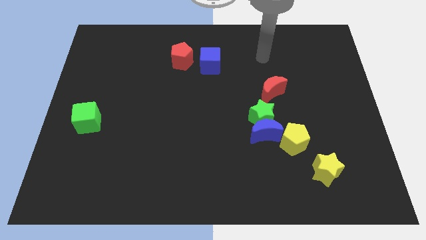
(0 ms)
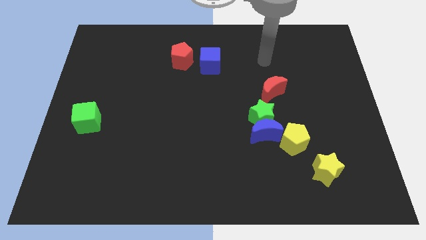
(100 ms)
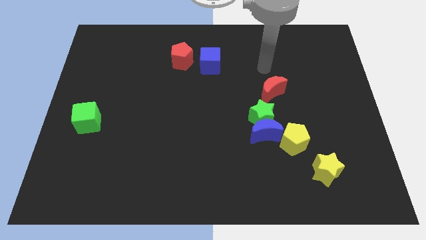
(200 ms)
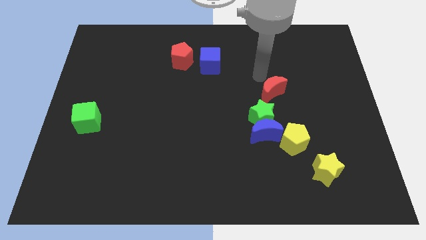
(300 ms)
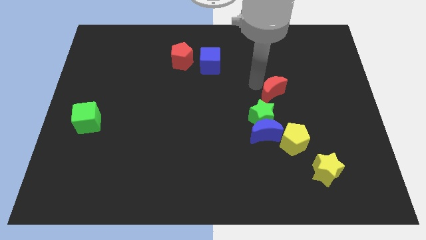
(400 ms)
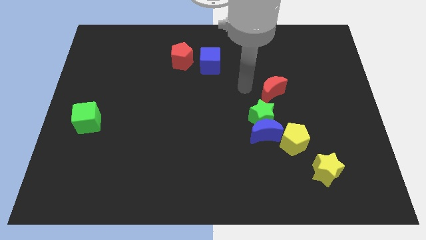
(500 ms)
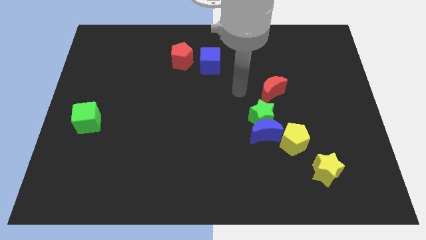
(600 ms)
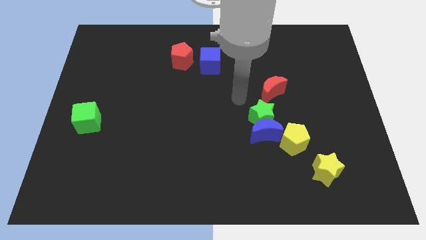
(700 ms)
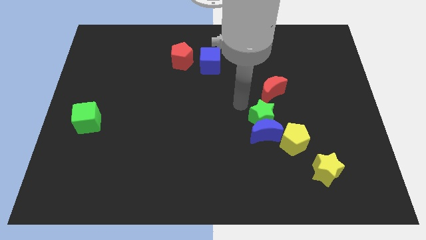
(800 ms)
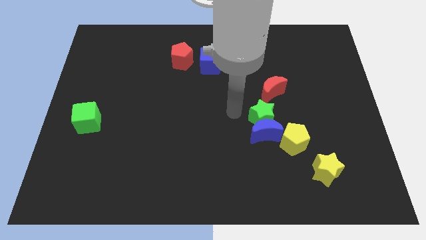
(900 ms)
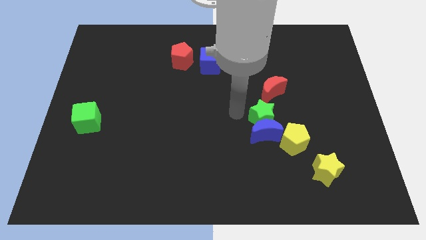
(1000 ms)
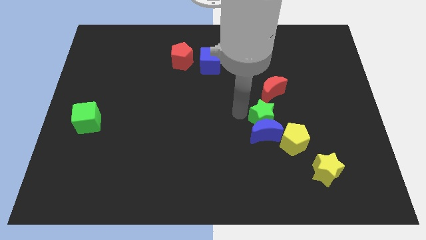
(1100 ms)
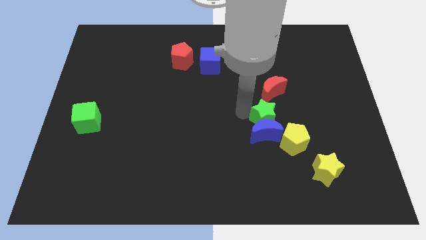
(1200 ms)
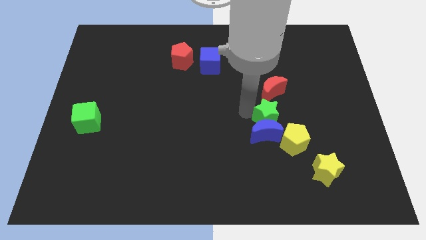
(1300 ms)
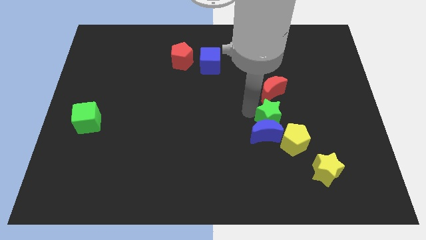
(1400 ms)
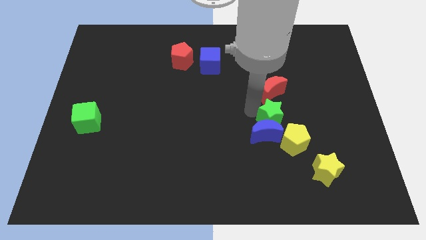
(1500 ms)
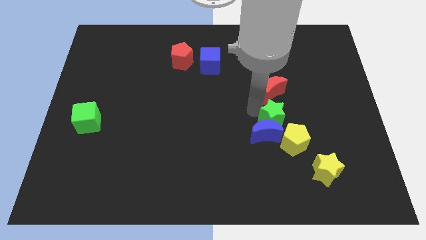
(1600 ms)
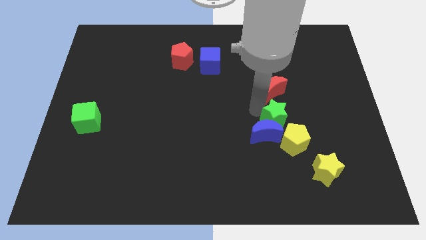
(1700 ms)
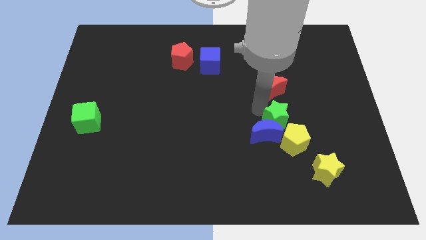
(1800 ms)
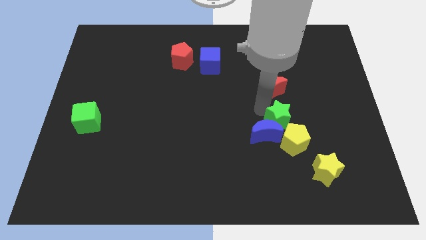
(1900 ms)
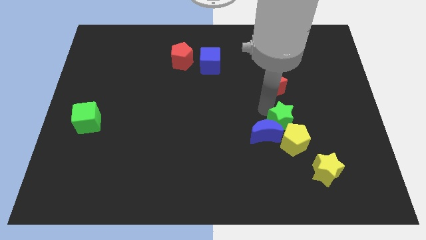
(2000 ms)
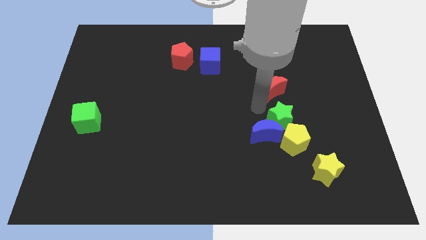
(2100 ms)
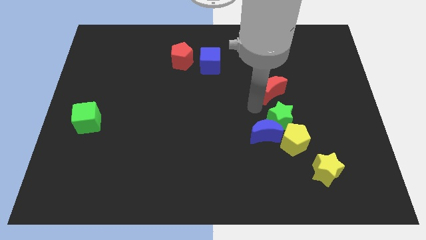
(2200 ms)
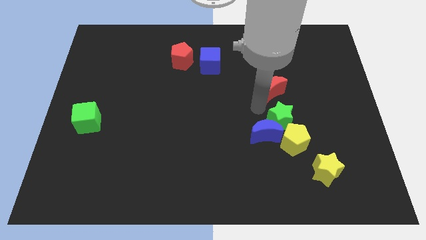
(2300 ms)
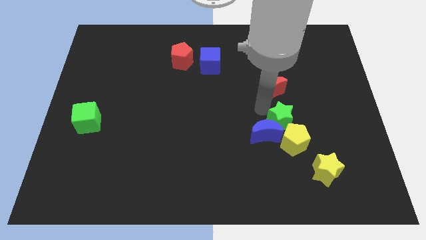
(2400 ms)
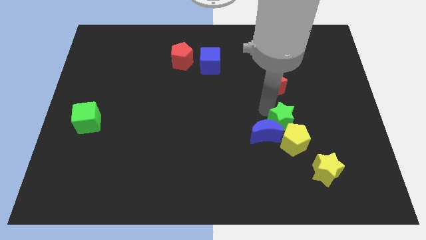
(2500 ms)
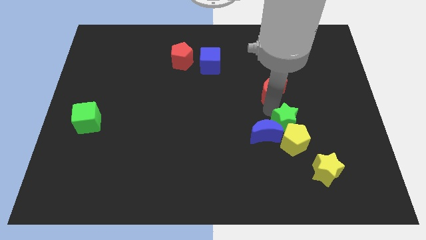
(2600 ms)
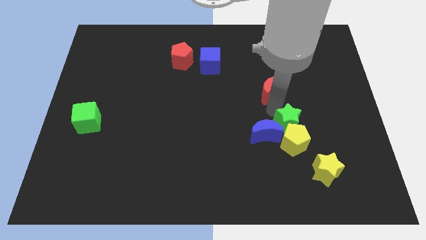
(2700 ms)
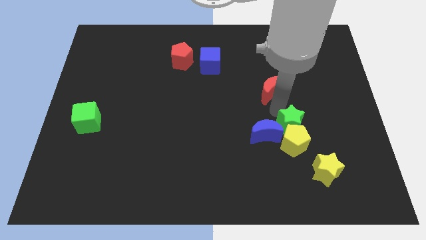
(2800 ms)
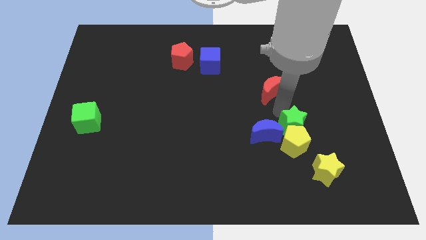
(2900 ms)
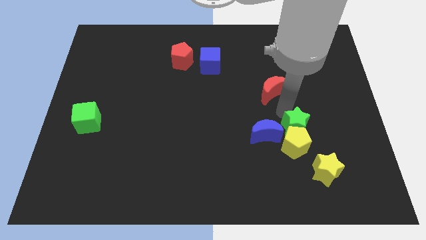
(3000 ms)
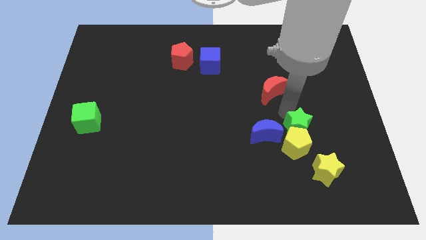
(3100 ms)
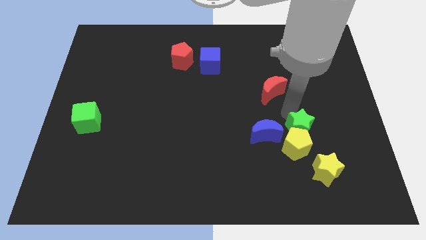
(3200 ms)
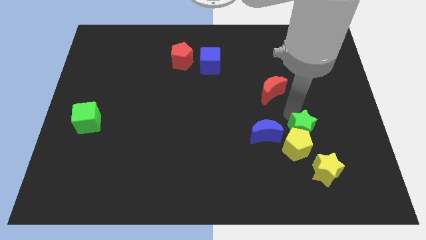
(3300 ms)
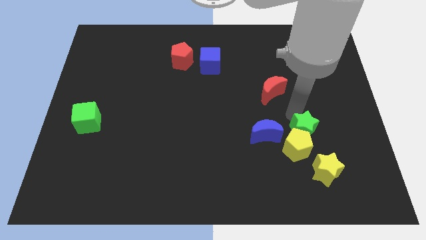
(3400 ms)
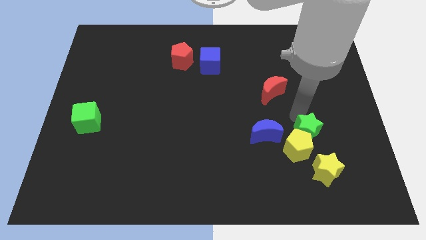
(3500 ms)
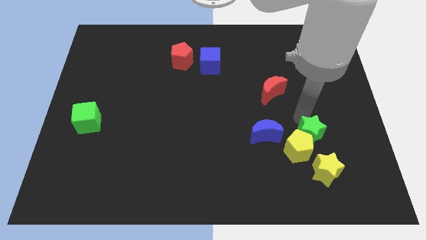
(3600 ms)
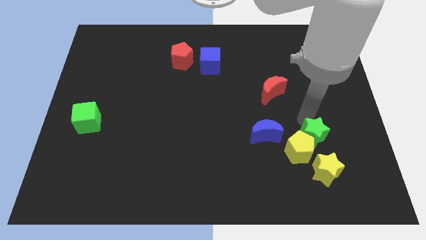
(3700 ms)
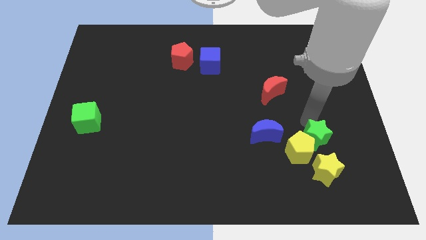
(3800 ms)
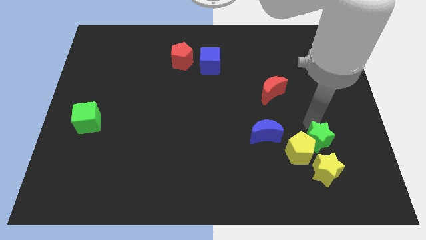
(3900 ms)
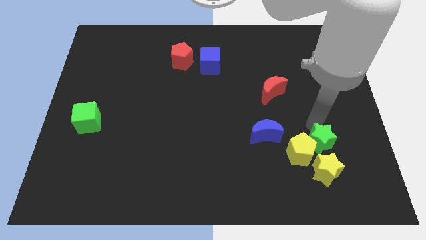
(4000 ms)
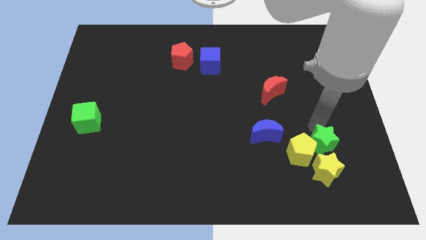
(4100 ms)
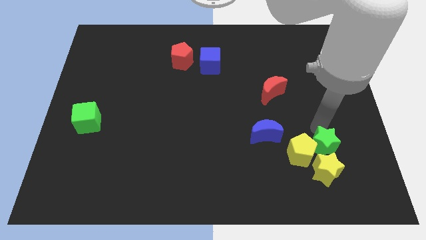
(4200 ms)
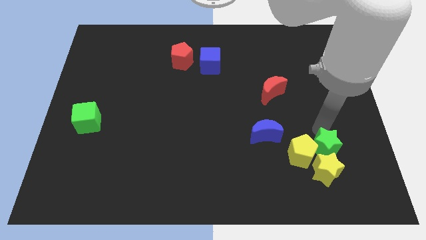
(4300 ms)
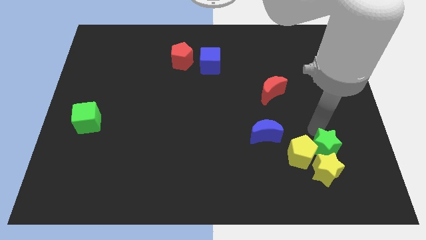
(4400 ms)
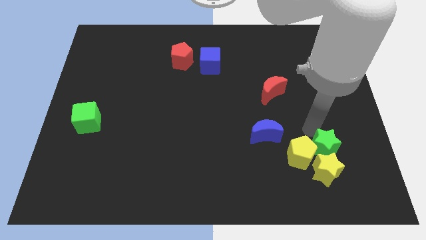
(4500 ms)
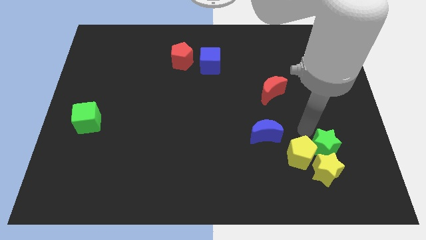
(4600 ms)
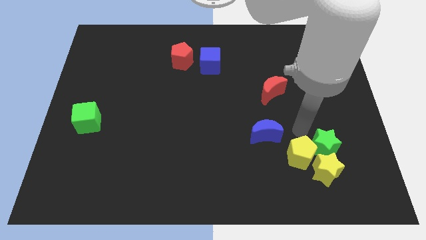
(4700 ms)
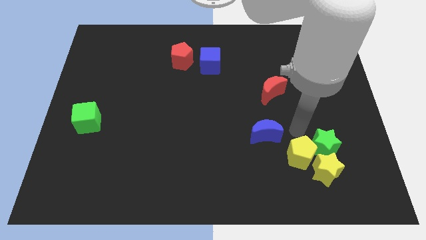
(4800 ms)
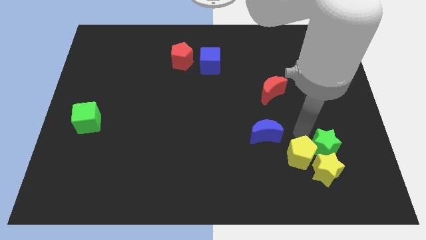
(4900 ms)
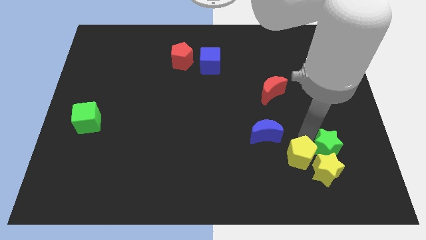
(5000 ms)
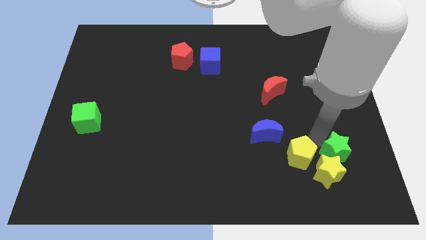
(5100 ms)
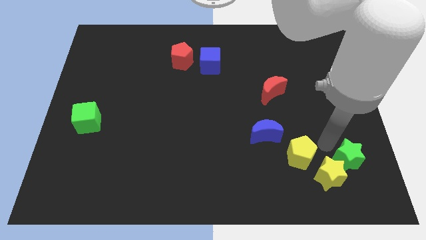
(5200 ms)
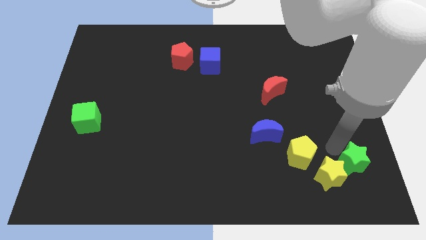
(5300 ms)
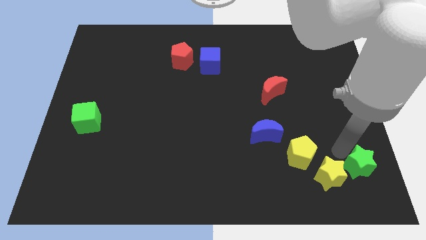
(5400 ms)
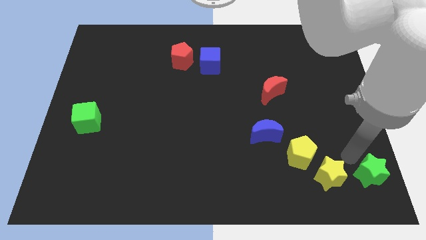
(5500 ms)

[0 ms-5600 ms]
put the green star to the bottom right of the board

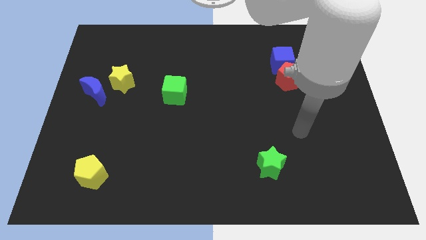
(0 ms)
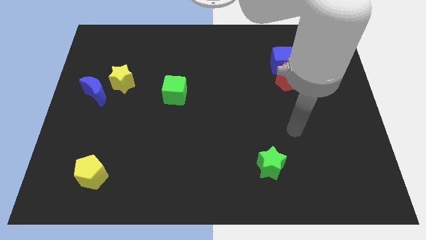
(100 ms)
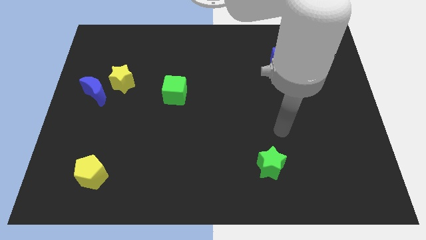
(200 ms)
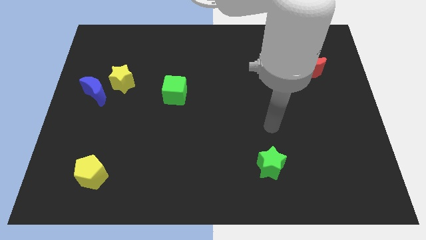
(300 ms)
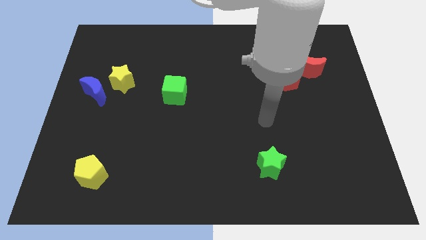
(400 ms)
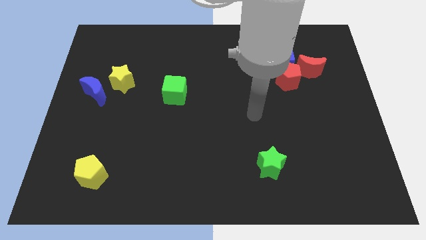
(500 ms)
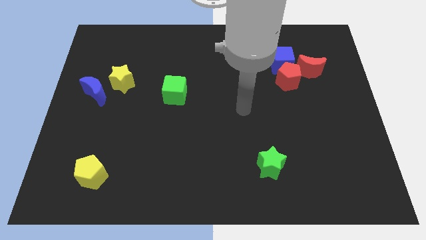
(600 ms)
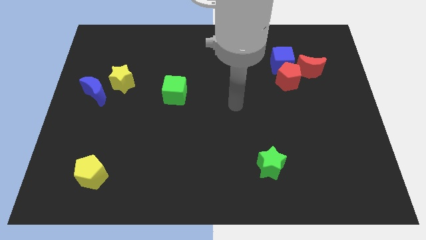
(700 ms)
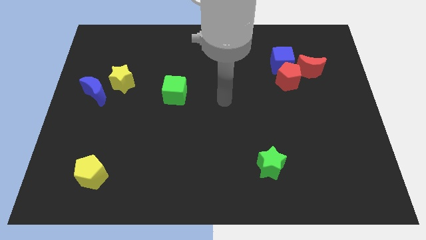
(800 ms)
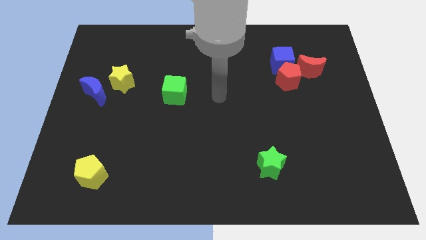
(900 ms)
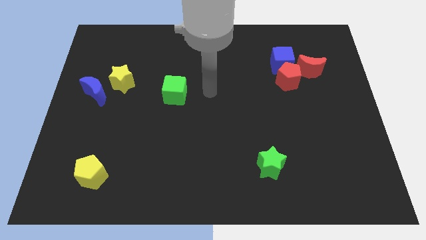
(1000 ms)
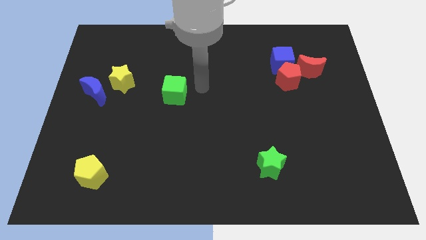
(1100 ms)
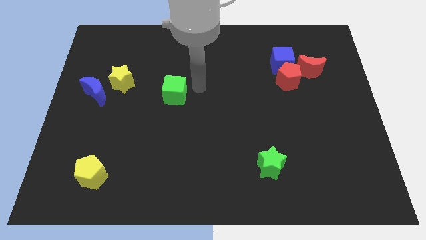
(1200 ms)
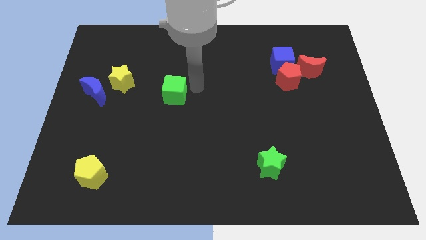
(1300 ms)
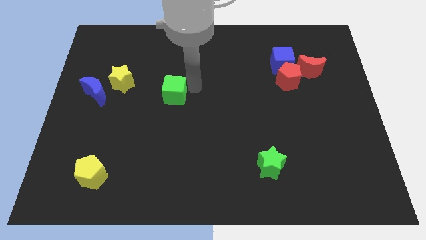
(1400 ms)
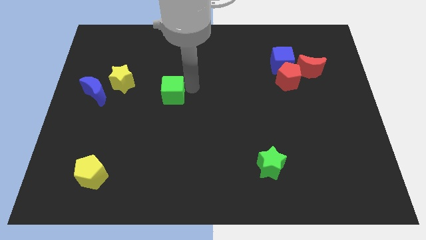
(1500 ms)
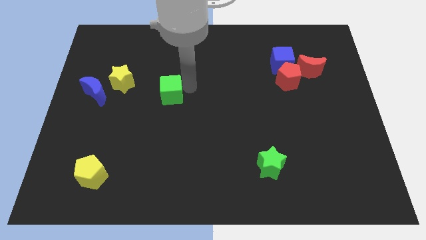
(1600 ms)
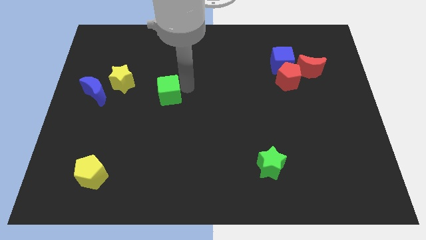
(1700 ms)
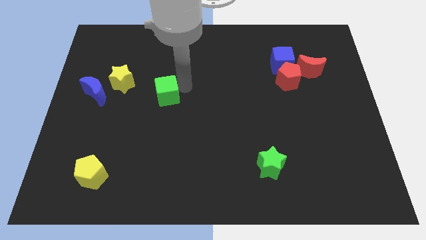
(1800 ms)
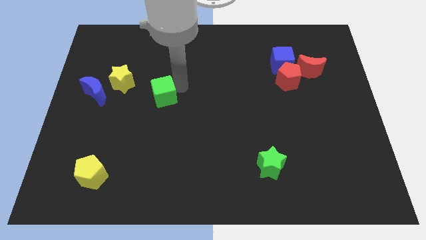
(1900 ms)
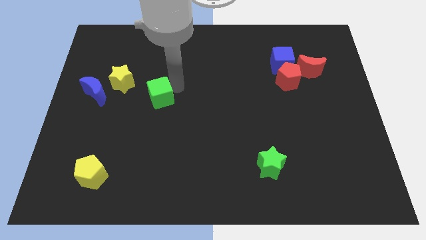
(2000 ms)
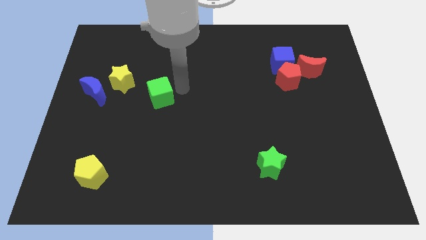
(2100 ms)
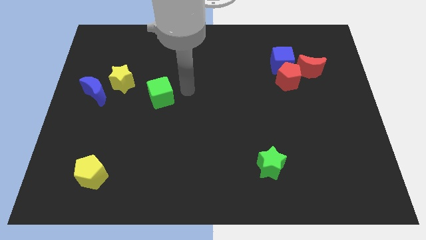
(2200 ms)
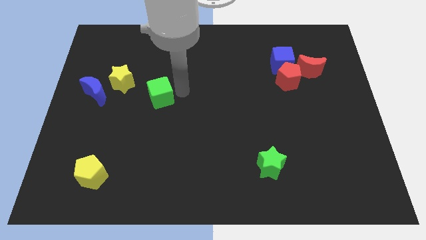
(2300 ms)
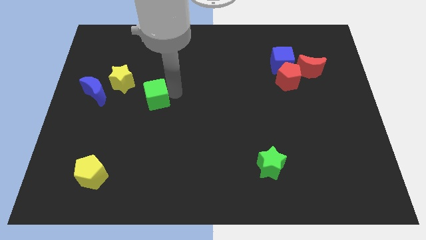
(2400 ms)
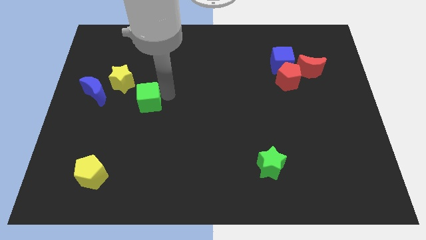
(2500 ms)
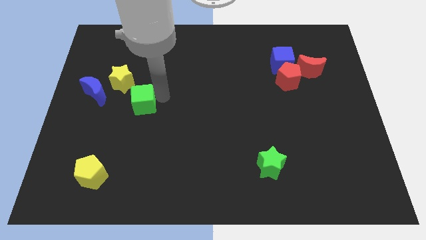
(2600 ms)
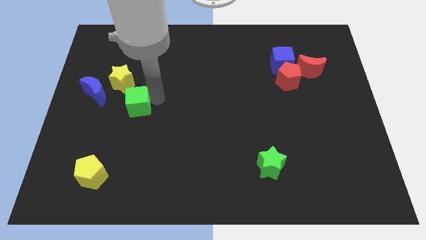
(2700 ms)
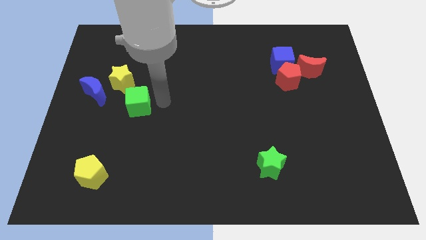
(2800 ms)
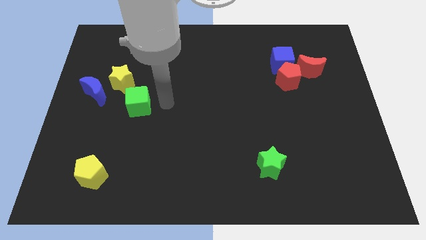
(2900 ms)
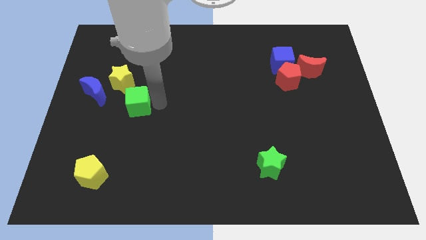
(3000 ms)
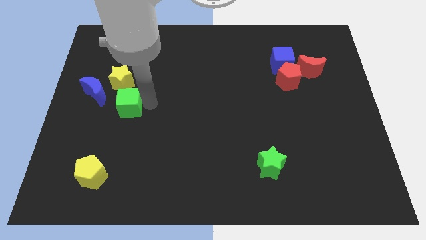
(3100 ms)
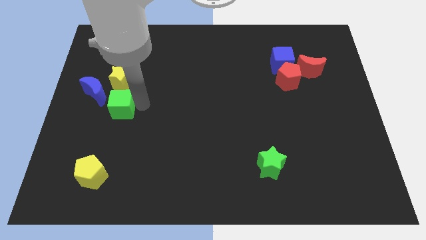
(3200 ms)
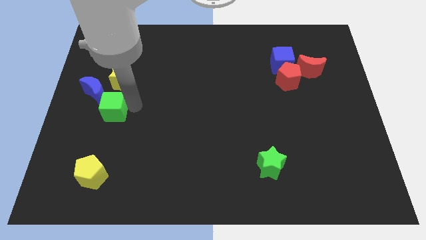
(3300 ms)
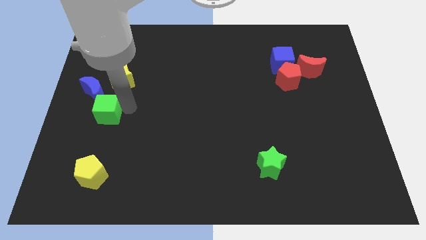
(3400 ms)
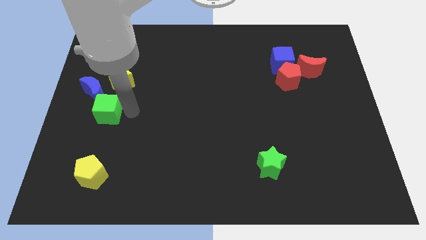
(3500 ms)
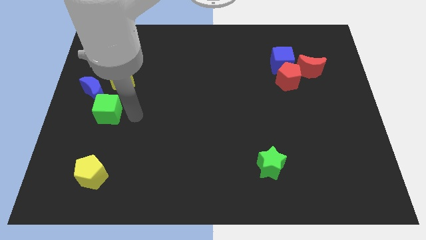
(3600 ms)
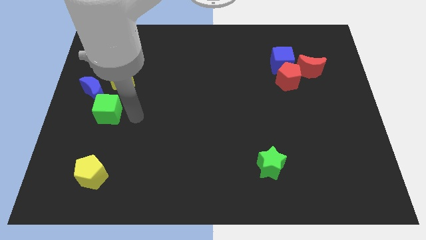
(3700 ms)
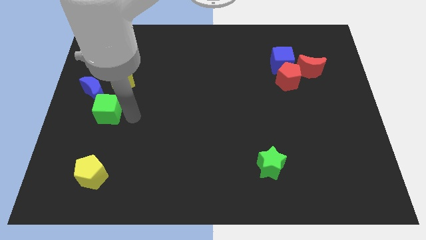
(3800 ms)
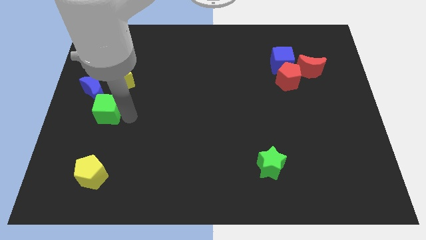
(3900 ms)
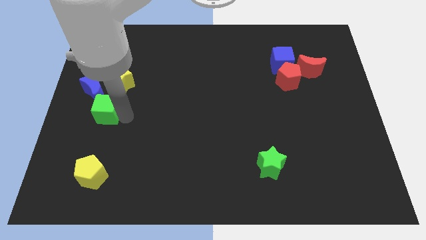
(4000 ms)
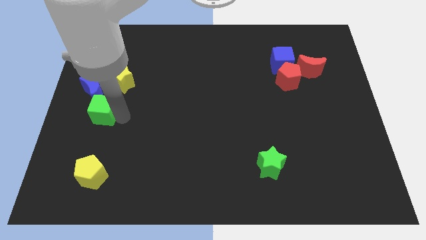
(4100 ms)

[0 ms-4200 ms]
slide the green cube to the left side
